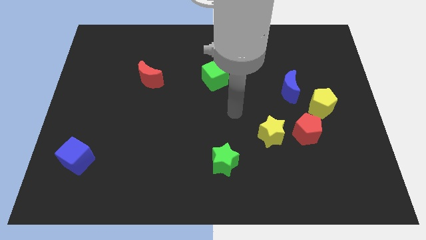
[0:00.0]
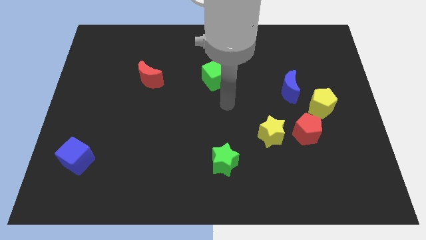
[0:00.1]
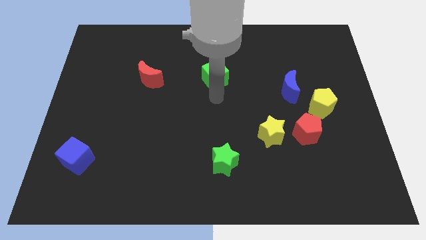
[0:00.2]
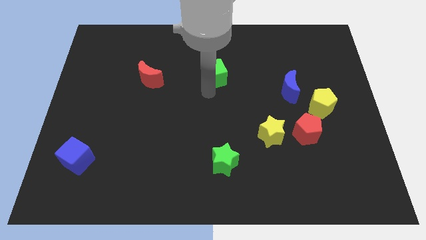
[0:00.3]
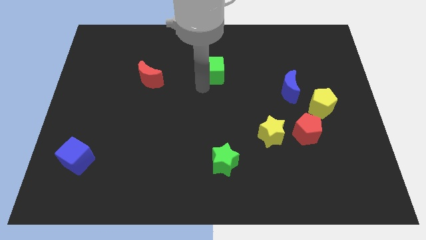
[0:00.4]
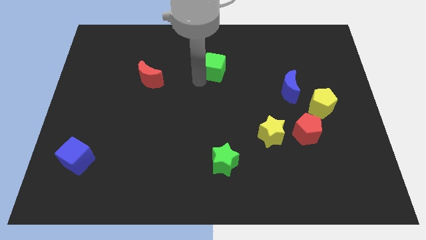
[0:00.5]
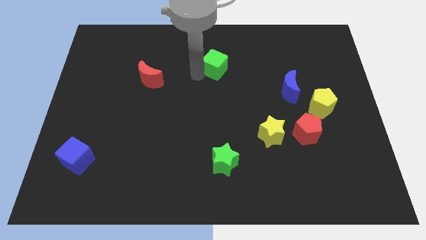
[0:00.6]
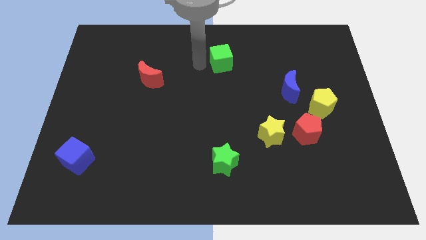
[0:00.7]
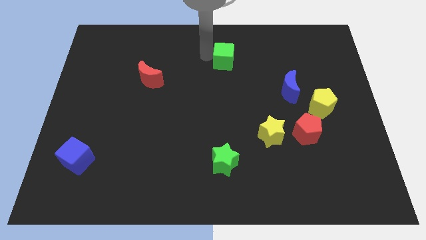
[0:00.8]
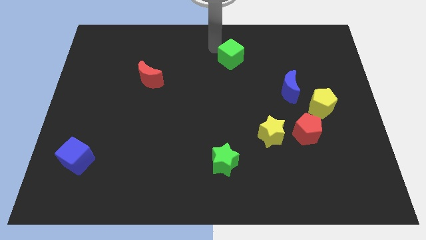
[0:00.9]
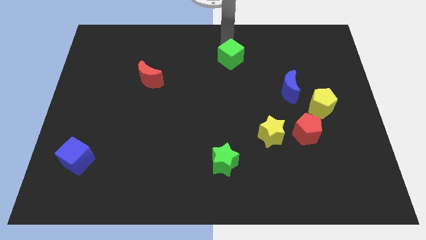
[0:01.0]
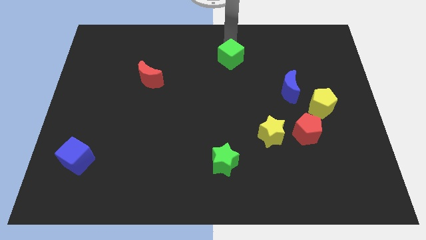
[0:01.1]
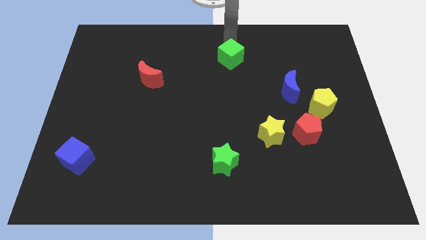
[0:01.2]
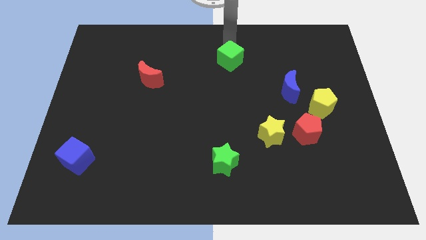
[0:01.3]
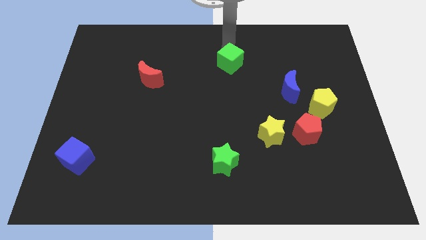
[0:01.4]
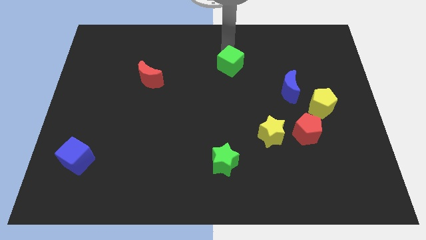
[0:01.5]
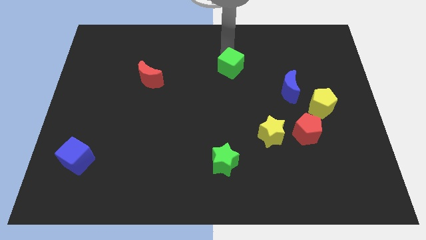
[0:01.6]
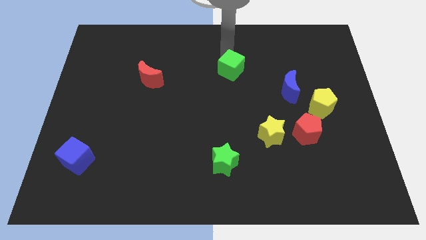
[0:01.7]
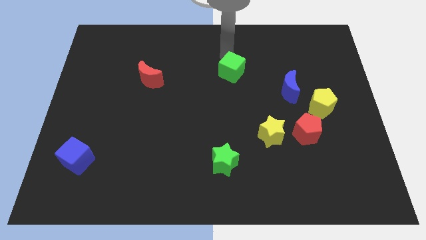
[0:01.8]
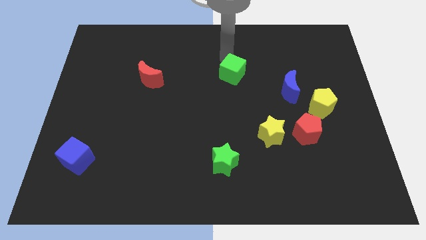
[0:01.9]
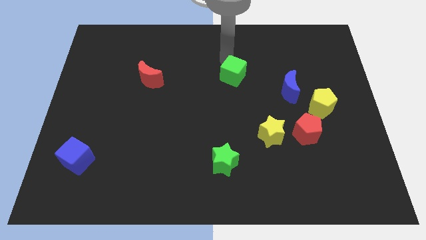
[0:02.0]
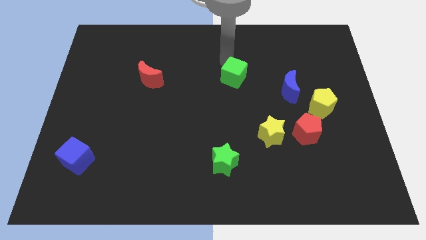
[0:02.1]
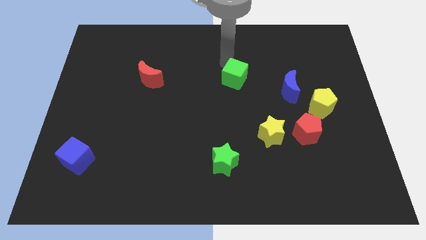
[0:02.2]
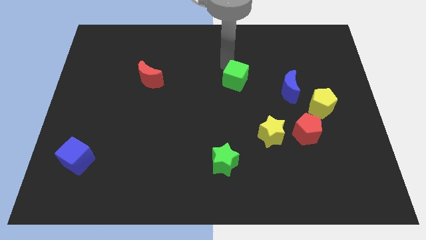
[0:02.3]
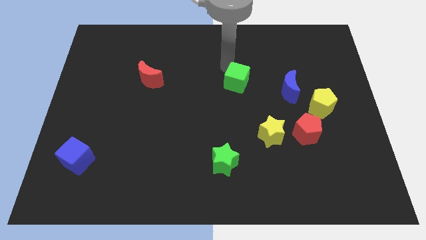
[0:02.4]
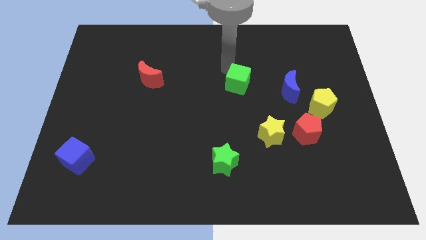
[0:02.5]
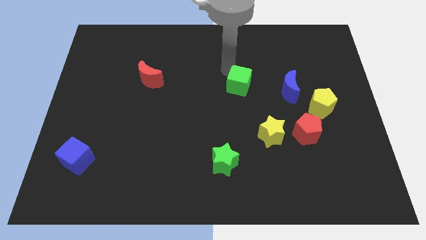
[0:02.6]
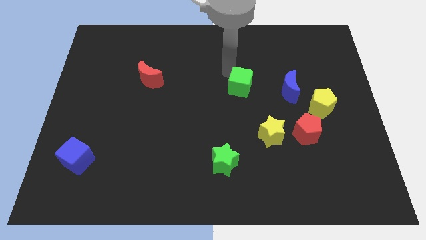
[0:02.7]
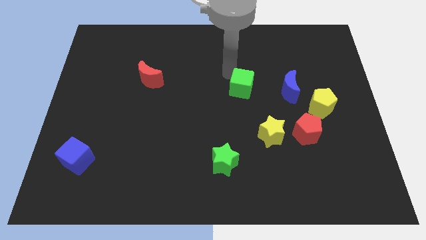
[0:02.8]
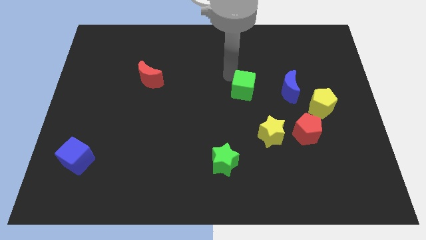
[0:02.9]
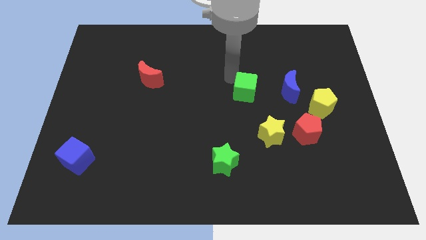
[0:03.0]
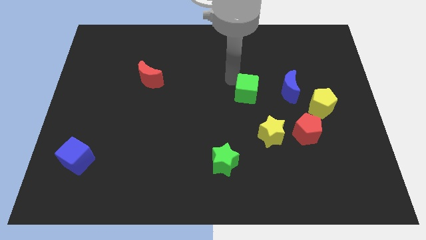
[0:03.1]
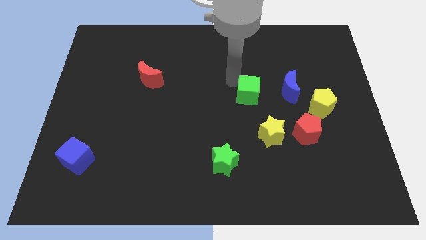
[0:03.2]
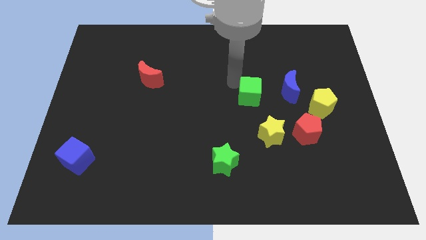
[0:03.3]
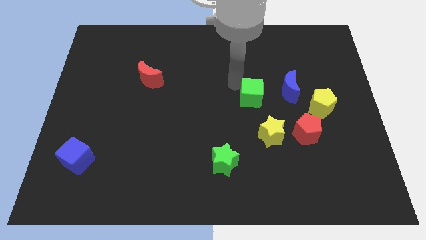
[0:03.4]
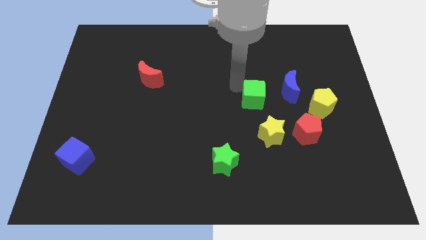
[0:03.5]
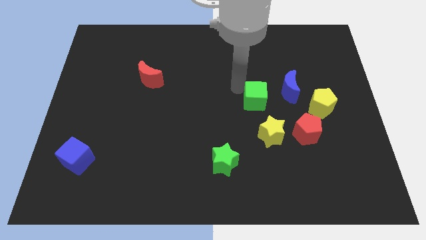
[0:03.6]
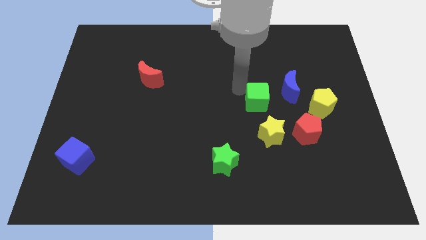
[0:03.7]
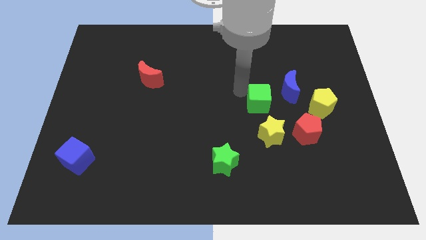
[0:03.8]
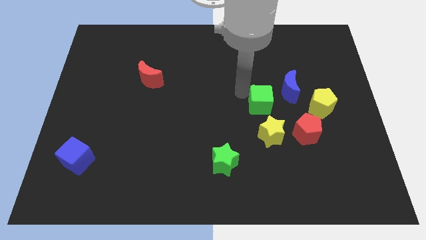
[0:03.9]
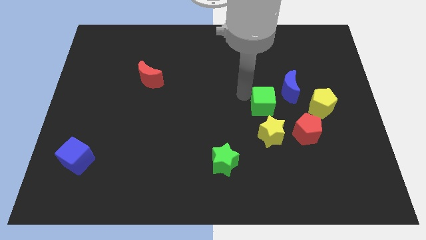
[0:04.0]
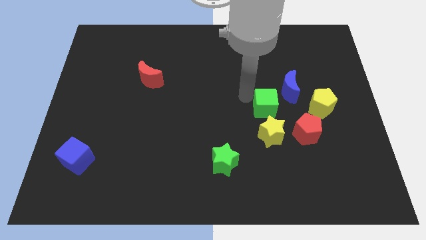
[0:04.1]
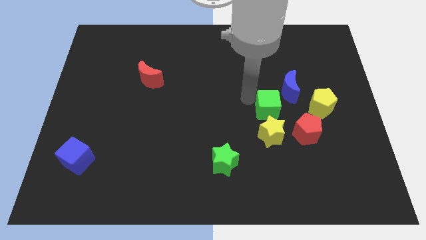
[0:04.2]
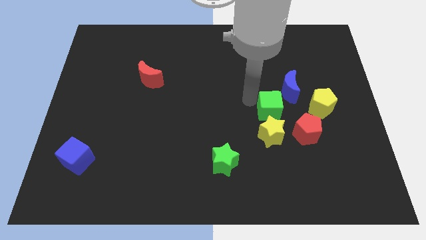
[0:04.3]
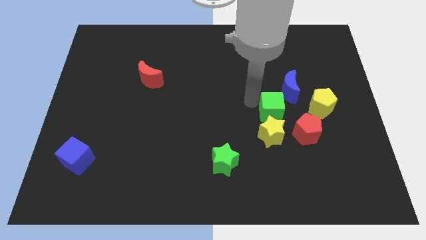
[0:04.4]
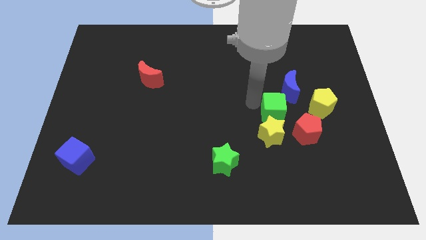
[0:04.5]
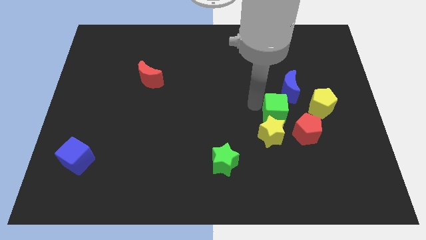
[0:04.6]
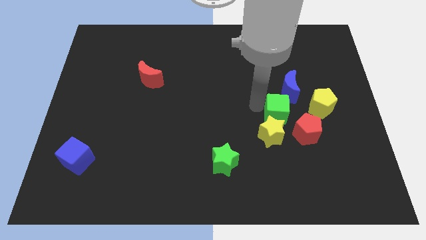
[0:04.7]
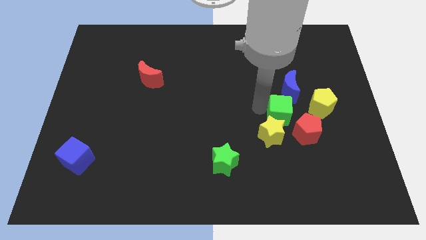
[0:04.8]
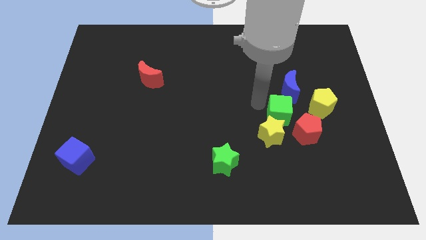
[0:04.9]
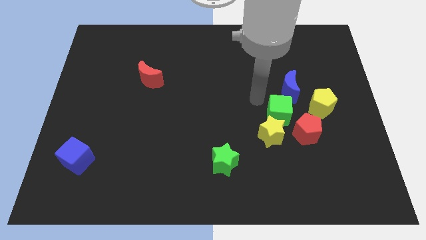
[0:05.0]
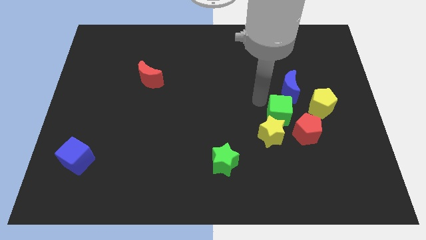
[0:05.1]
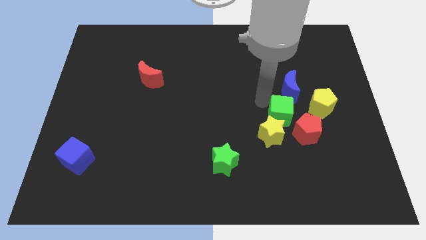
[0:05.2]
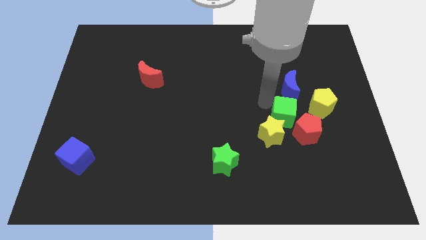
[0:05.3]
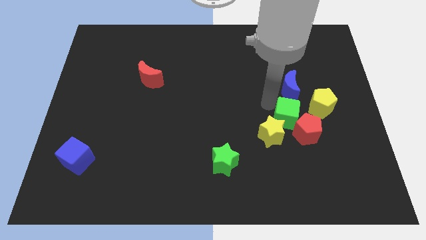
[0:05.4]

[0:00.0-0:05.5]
put the green cube next to the red pentagon

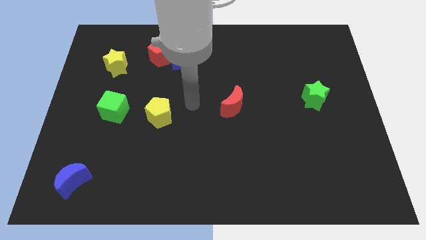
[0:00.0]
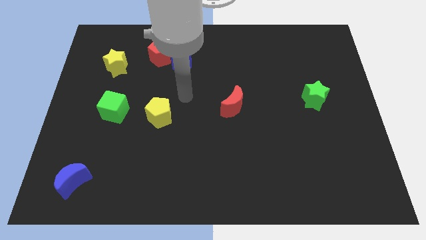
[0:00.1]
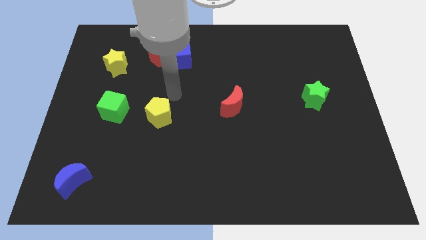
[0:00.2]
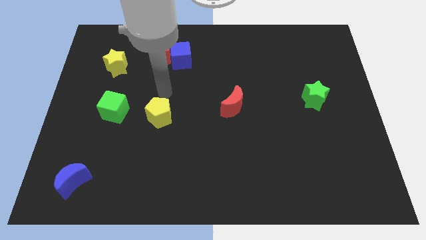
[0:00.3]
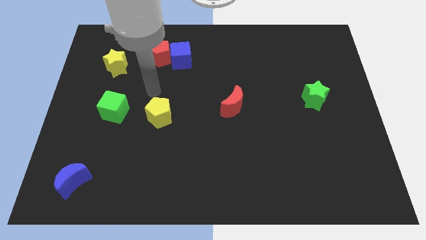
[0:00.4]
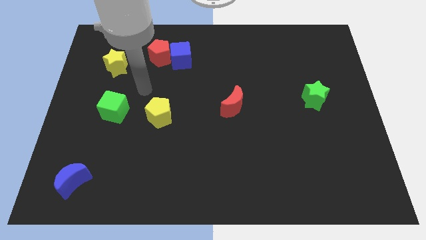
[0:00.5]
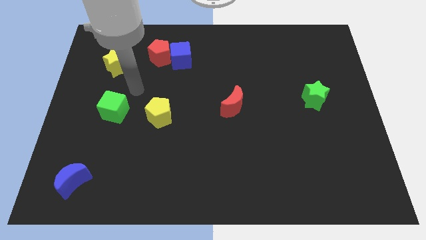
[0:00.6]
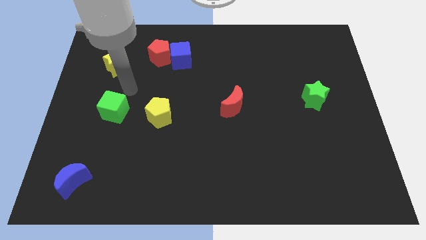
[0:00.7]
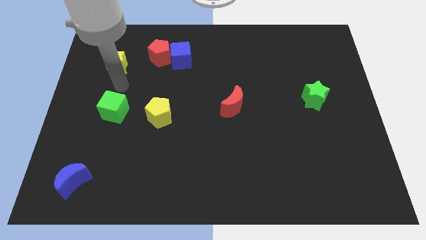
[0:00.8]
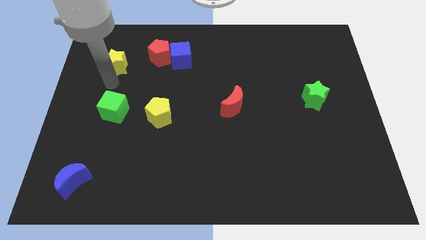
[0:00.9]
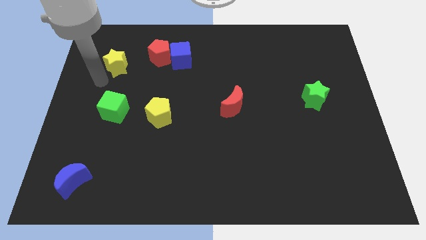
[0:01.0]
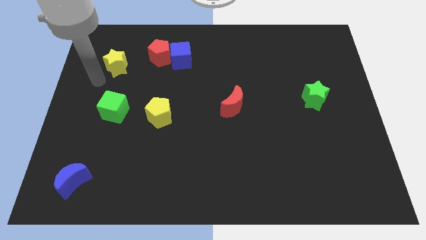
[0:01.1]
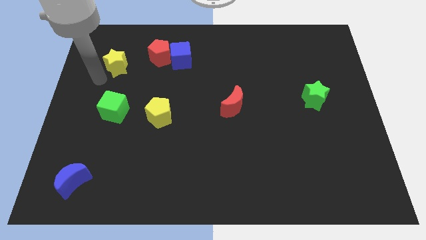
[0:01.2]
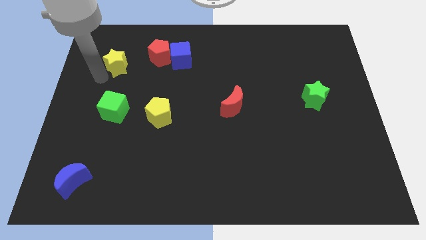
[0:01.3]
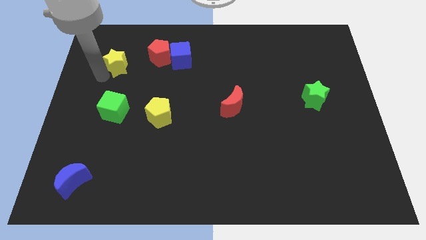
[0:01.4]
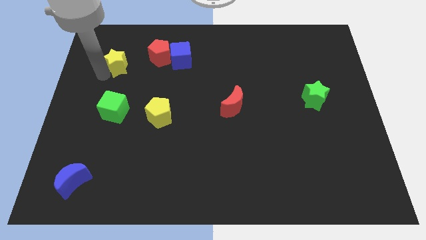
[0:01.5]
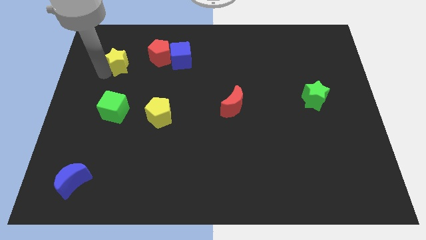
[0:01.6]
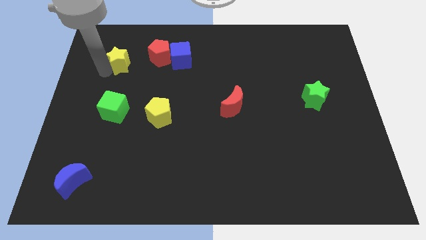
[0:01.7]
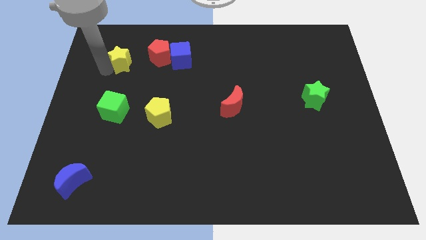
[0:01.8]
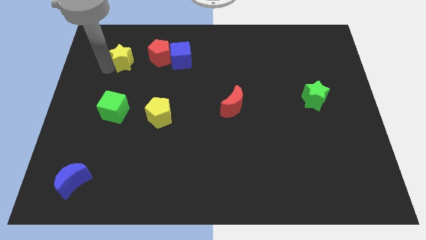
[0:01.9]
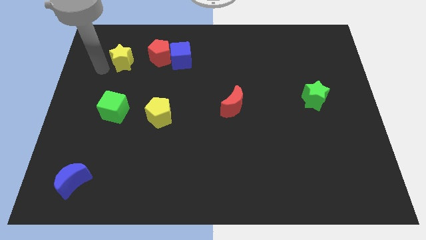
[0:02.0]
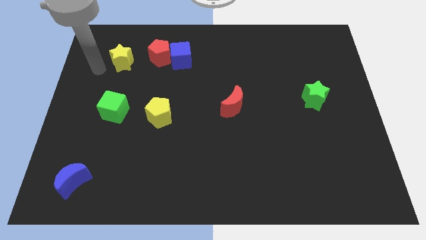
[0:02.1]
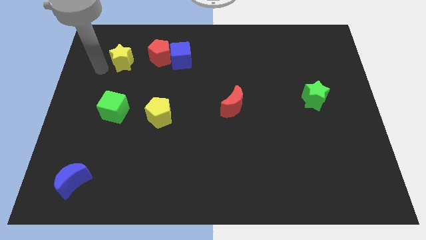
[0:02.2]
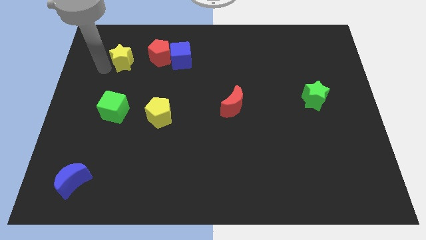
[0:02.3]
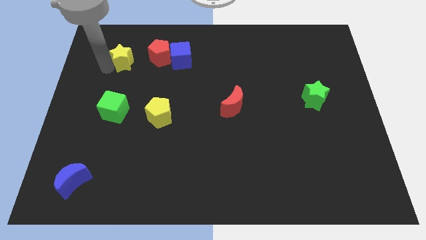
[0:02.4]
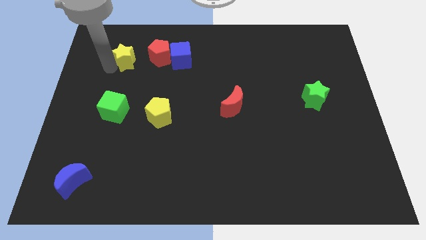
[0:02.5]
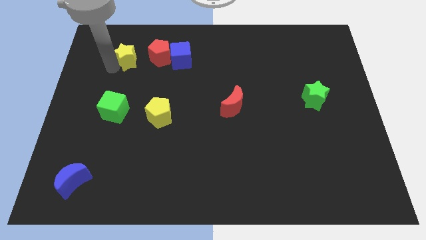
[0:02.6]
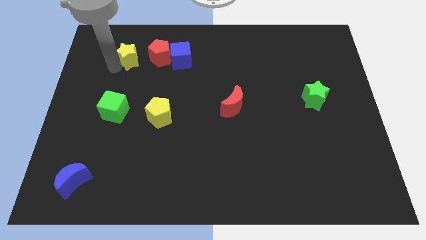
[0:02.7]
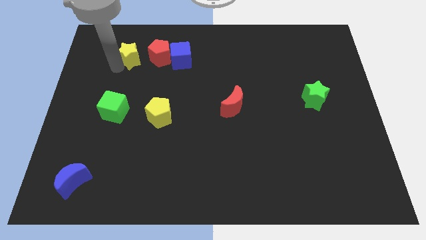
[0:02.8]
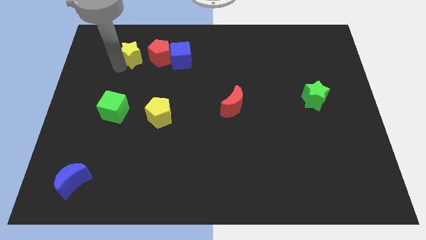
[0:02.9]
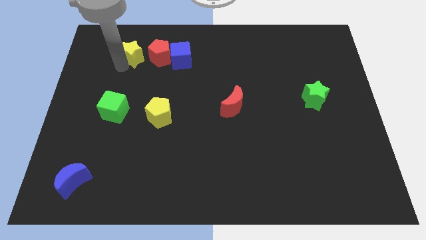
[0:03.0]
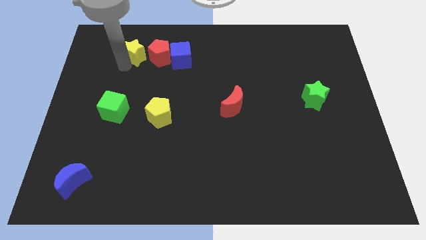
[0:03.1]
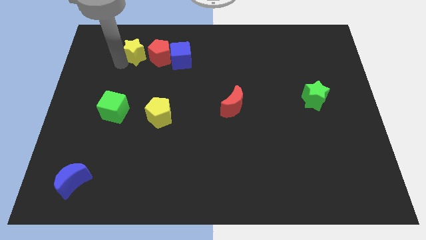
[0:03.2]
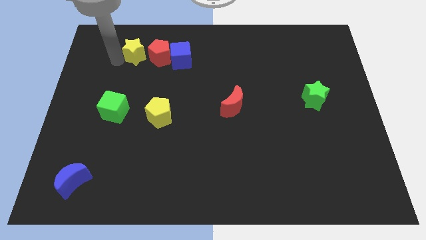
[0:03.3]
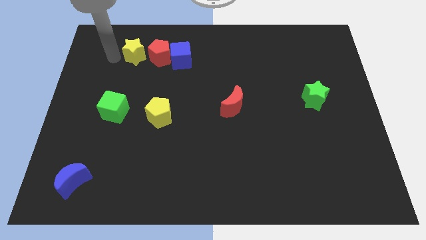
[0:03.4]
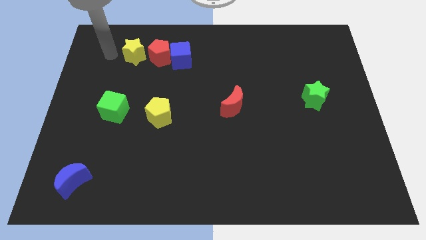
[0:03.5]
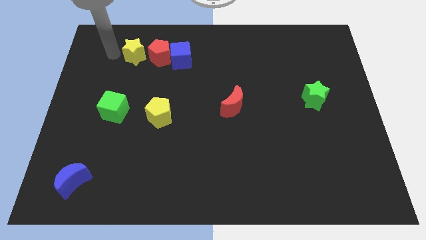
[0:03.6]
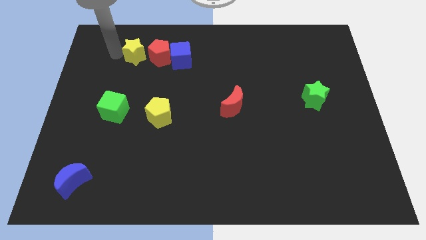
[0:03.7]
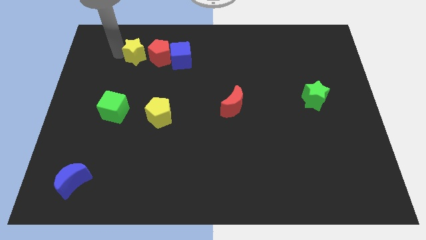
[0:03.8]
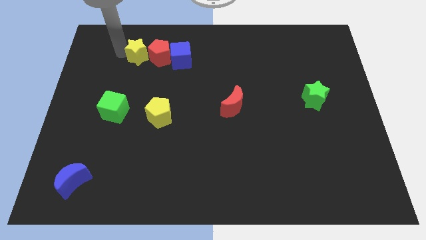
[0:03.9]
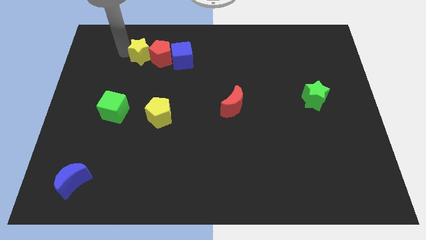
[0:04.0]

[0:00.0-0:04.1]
put the yellow star towards the red pentagon
